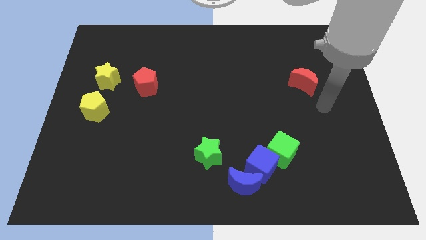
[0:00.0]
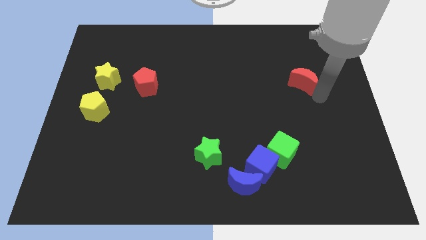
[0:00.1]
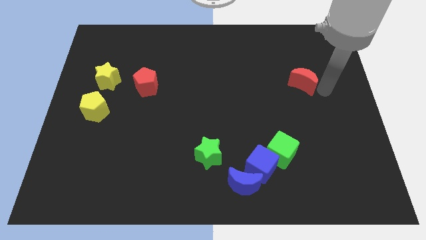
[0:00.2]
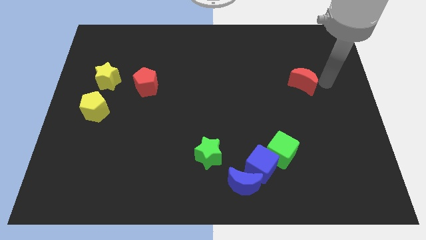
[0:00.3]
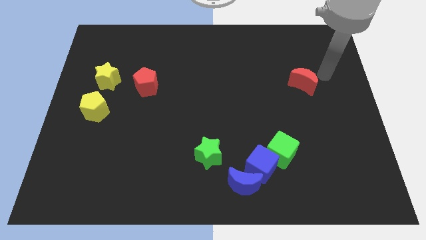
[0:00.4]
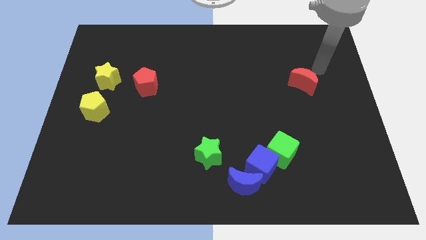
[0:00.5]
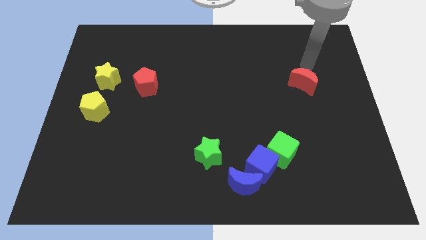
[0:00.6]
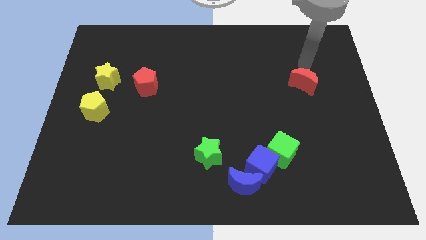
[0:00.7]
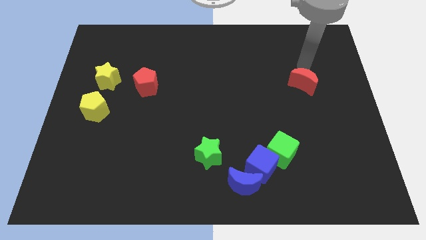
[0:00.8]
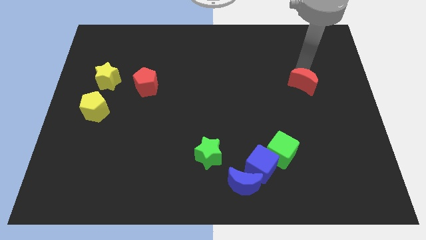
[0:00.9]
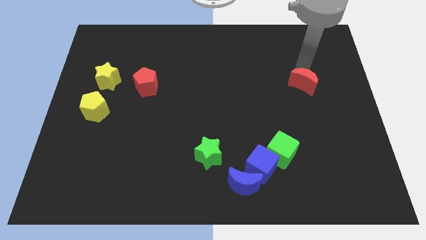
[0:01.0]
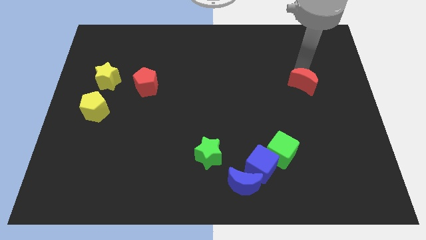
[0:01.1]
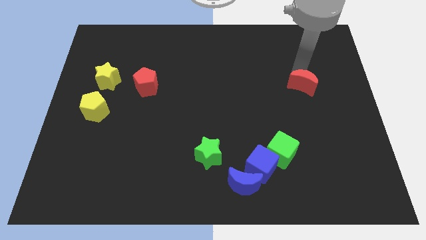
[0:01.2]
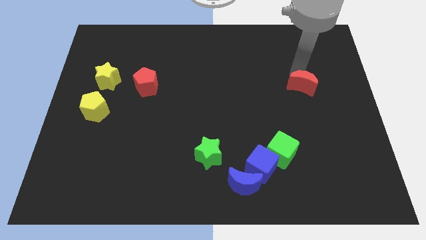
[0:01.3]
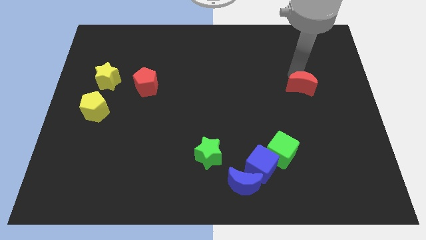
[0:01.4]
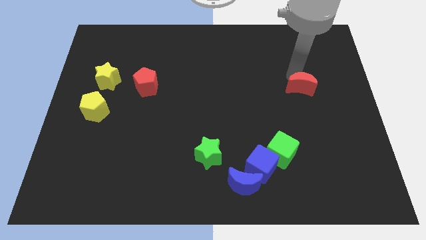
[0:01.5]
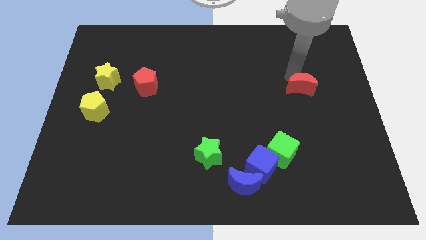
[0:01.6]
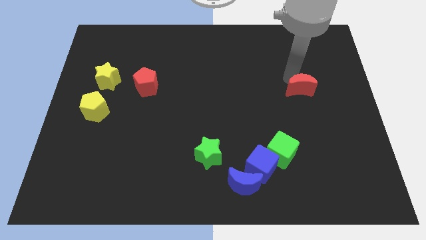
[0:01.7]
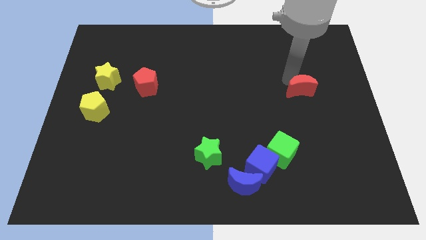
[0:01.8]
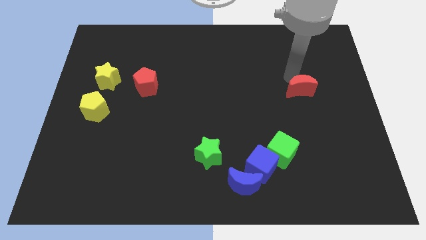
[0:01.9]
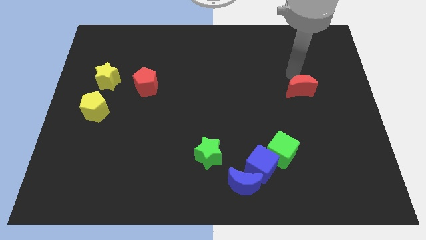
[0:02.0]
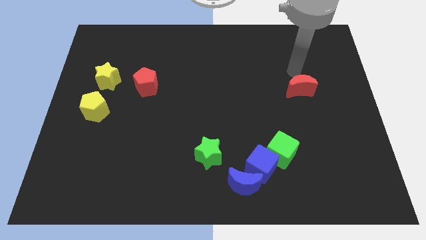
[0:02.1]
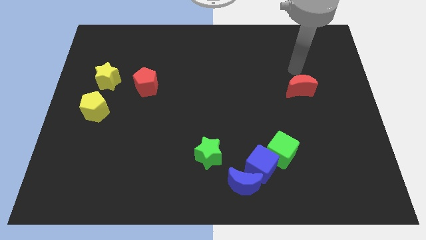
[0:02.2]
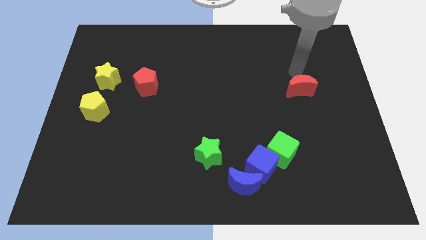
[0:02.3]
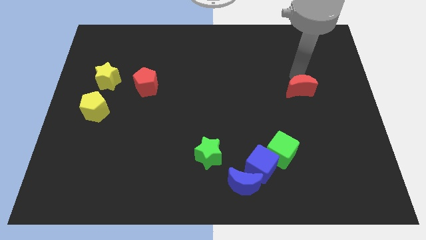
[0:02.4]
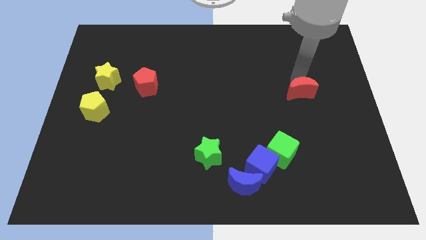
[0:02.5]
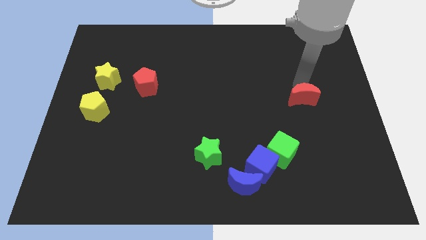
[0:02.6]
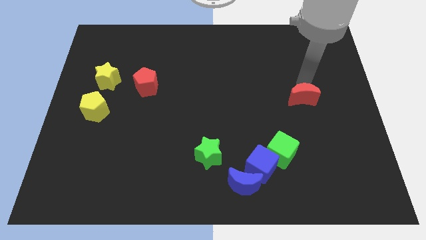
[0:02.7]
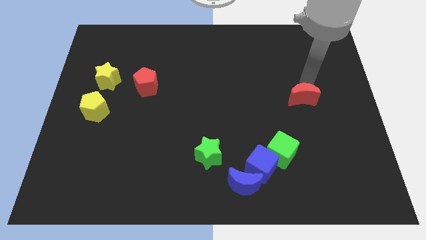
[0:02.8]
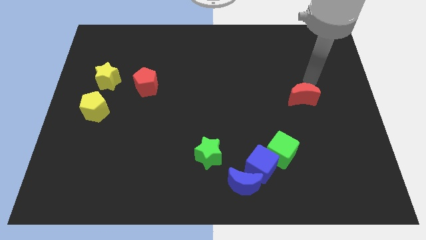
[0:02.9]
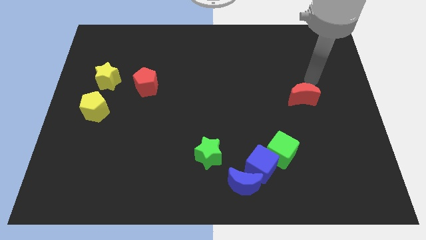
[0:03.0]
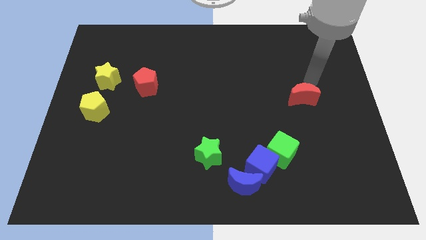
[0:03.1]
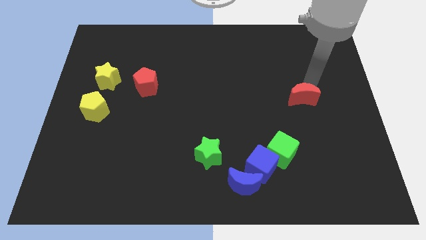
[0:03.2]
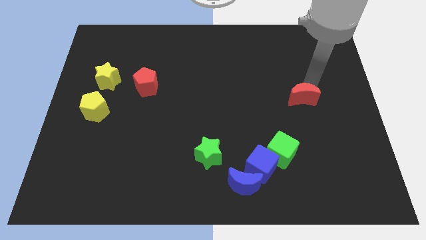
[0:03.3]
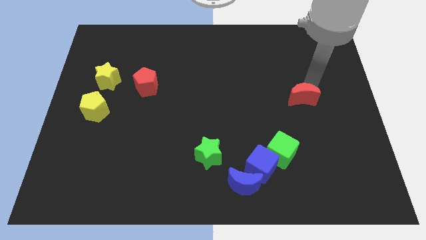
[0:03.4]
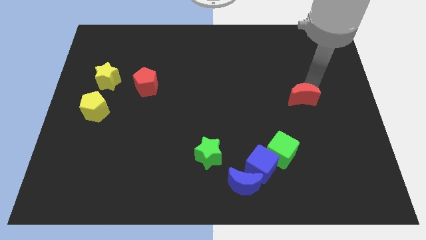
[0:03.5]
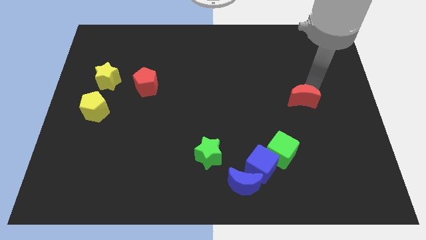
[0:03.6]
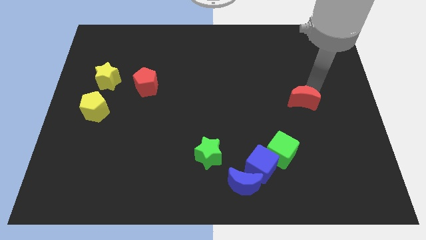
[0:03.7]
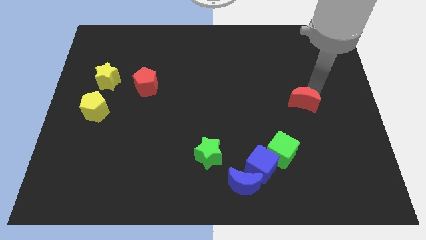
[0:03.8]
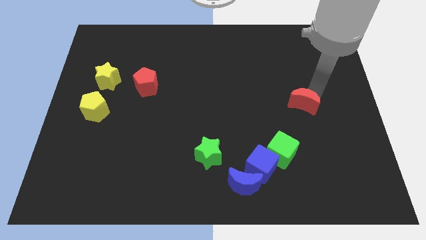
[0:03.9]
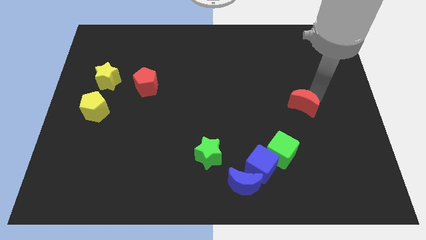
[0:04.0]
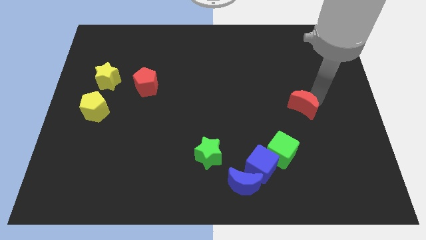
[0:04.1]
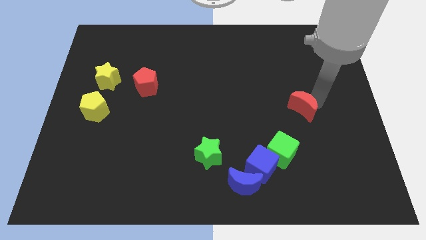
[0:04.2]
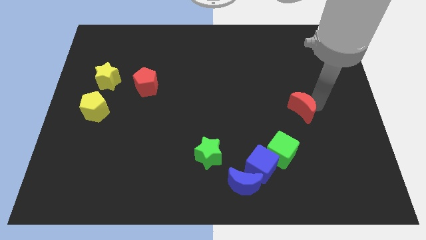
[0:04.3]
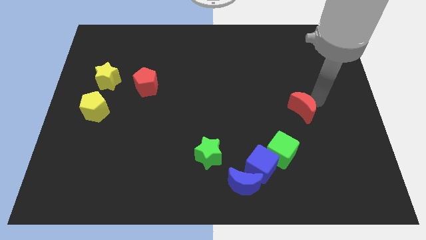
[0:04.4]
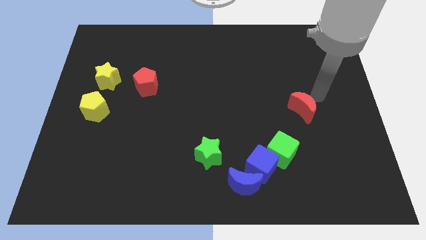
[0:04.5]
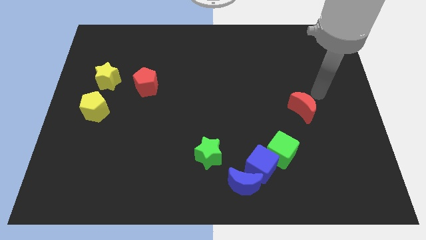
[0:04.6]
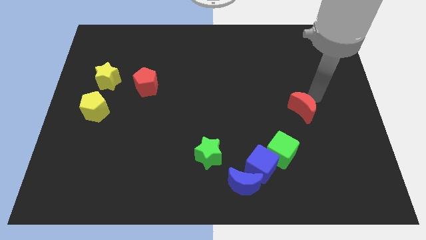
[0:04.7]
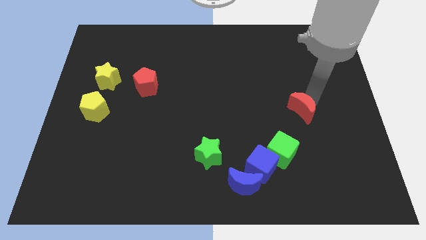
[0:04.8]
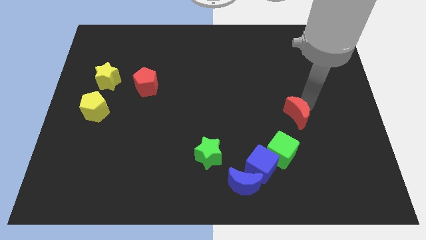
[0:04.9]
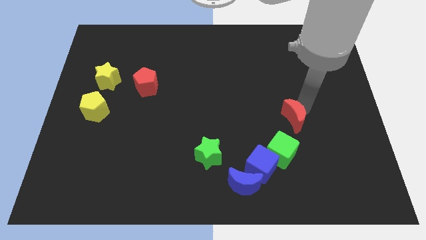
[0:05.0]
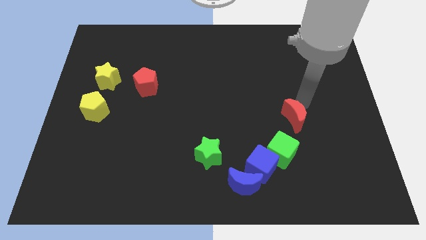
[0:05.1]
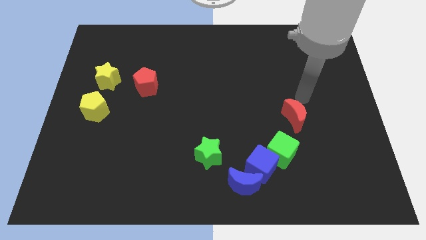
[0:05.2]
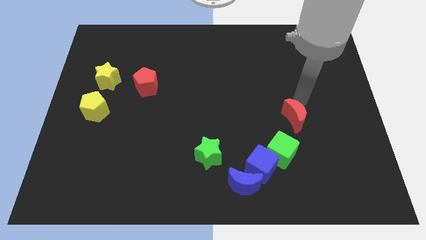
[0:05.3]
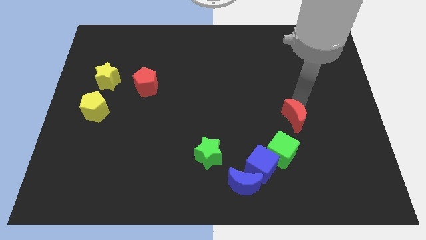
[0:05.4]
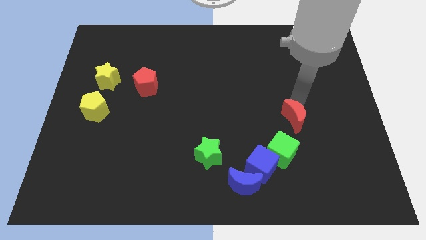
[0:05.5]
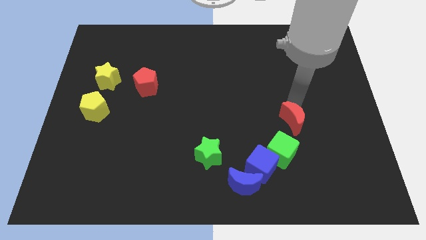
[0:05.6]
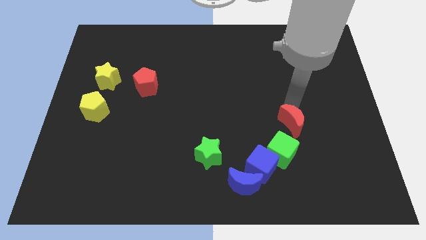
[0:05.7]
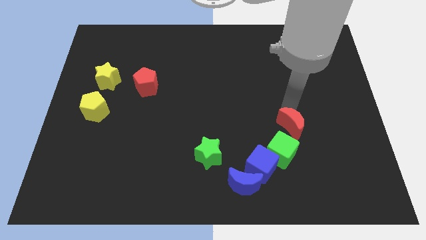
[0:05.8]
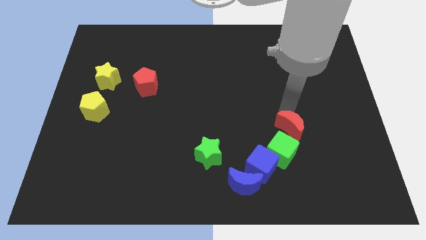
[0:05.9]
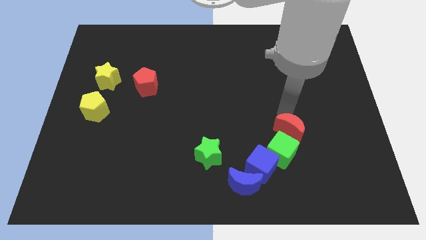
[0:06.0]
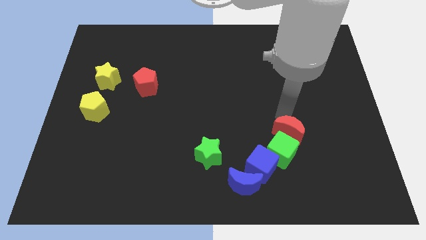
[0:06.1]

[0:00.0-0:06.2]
move the red moon close to the green cube

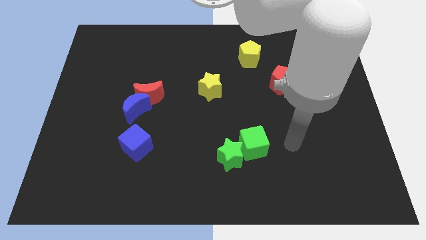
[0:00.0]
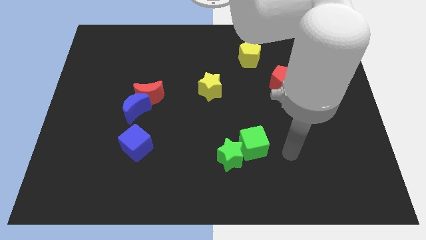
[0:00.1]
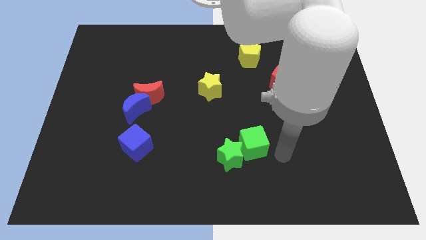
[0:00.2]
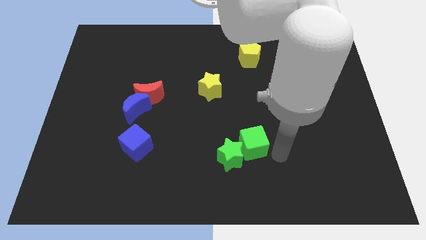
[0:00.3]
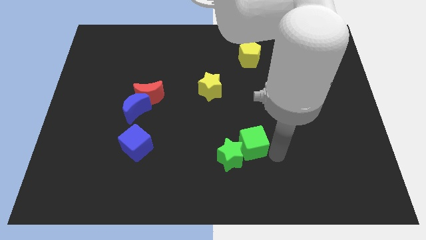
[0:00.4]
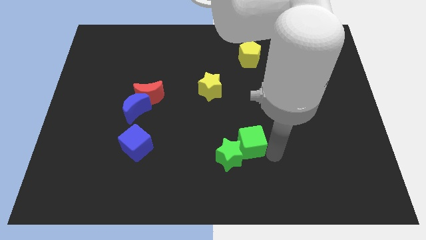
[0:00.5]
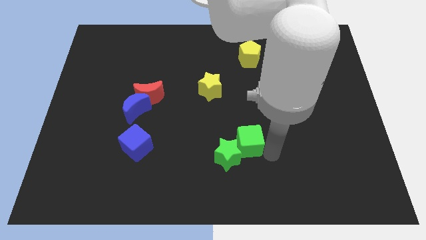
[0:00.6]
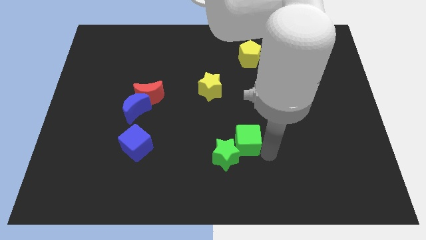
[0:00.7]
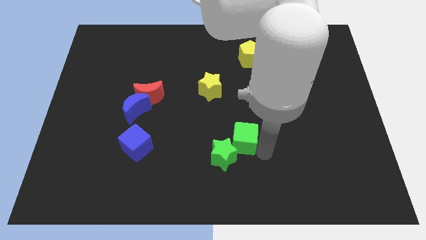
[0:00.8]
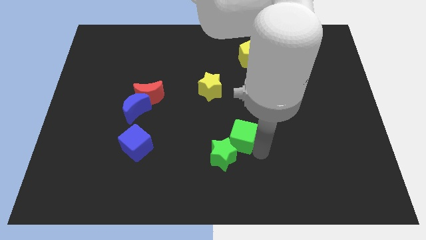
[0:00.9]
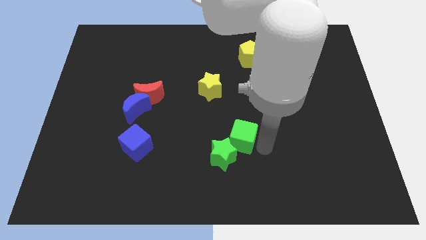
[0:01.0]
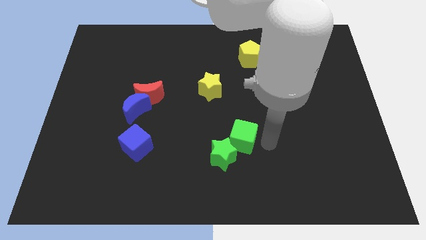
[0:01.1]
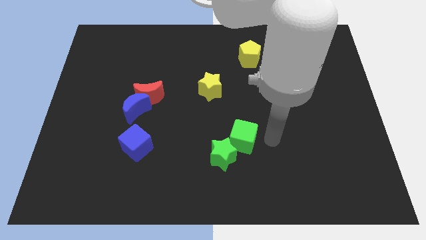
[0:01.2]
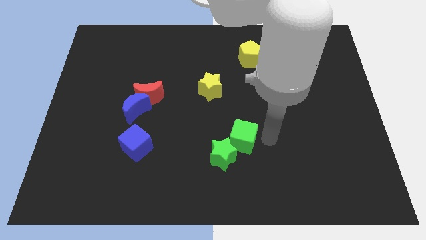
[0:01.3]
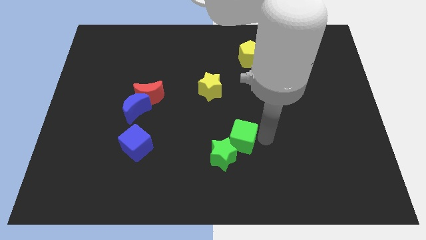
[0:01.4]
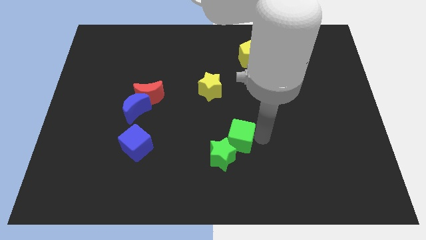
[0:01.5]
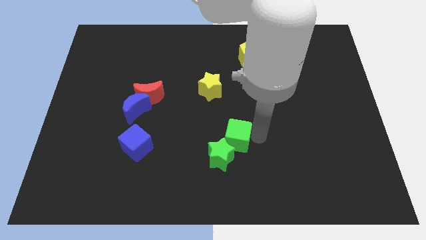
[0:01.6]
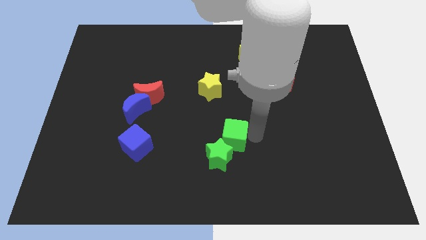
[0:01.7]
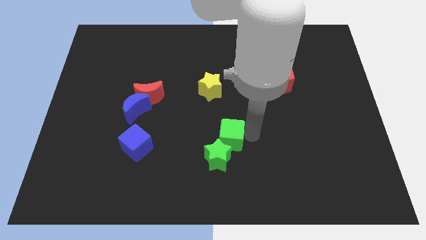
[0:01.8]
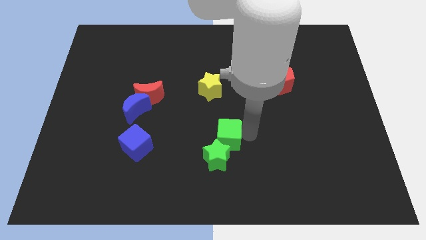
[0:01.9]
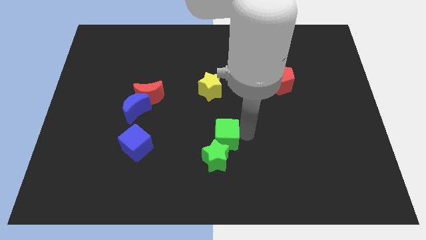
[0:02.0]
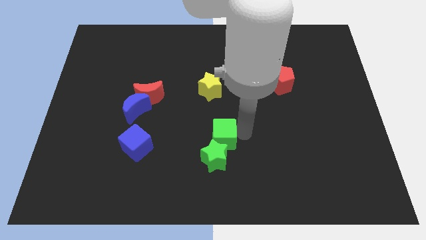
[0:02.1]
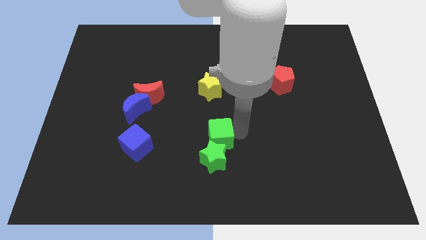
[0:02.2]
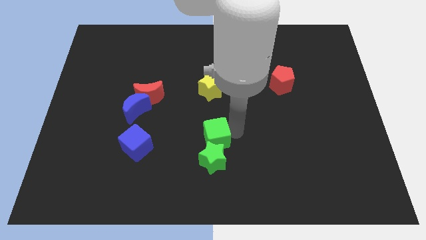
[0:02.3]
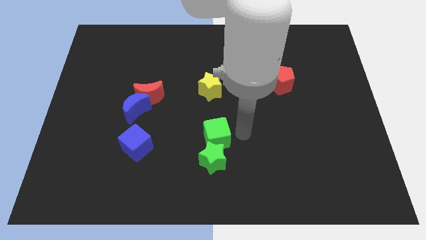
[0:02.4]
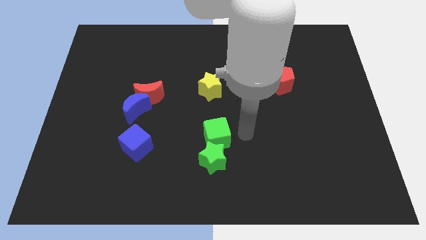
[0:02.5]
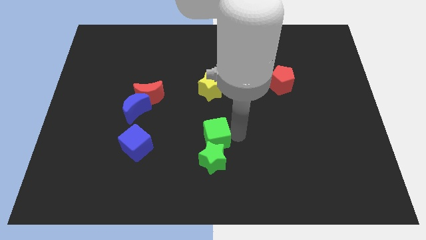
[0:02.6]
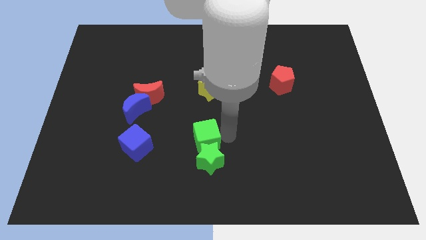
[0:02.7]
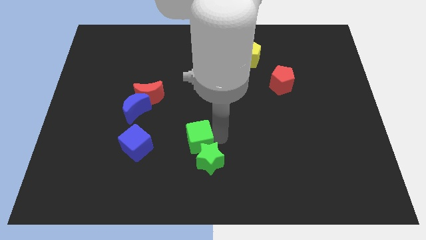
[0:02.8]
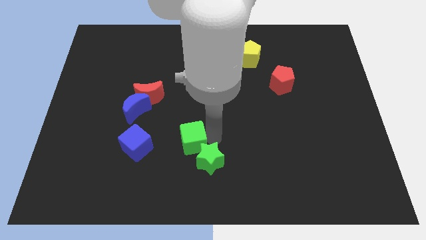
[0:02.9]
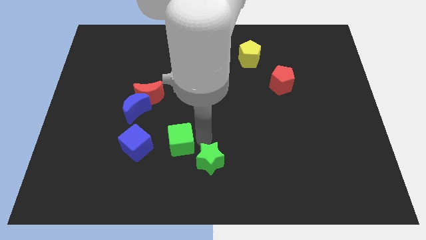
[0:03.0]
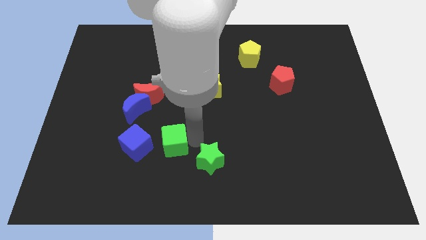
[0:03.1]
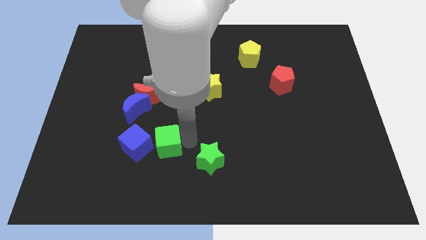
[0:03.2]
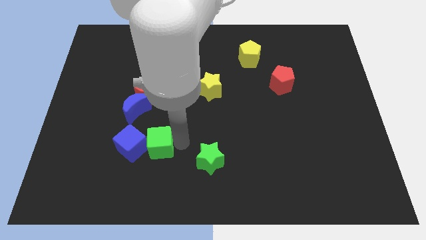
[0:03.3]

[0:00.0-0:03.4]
slide the green cube close to the blue cube
